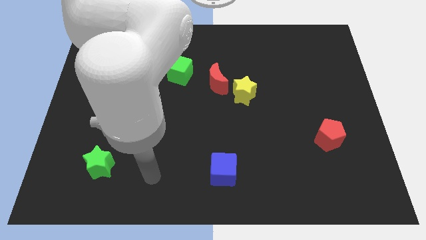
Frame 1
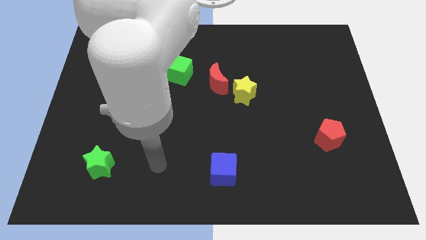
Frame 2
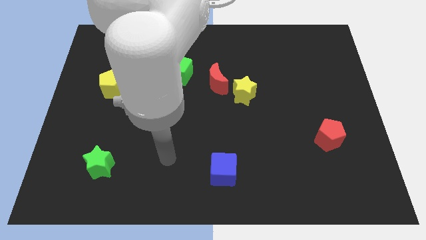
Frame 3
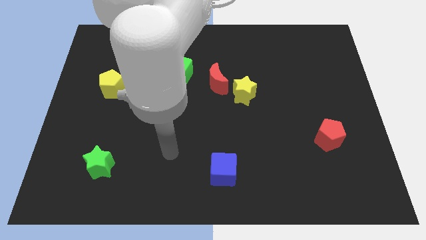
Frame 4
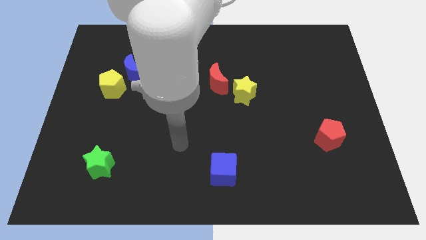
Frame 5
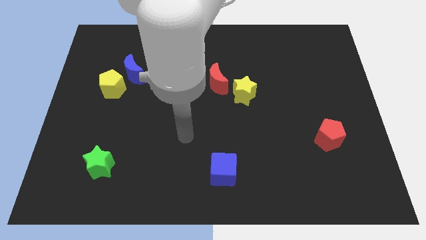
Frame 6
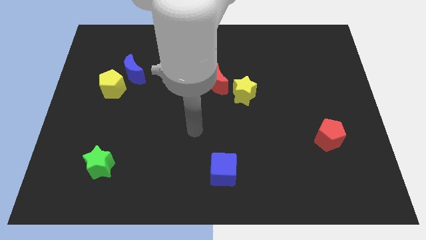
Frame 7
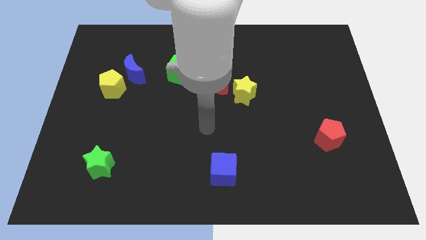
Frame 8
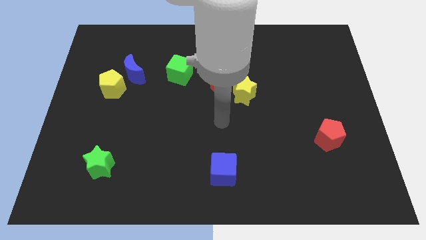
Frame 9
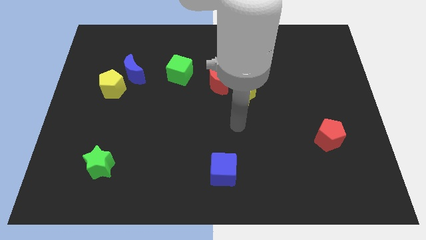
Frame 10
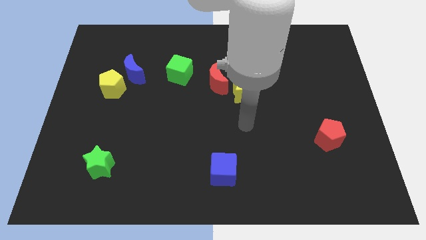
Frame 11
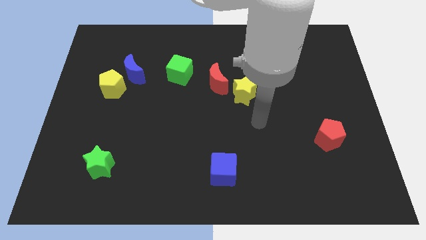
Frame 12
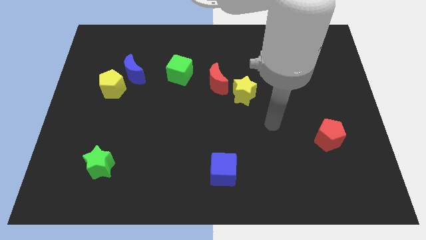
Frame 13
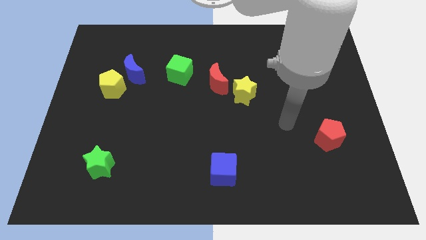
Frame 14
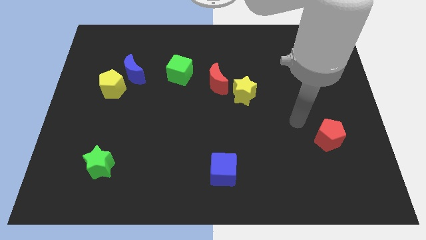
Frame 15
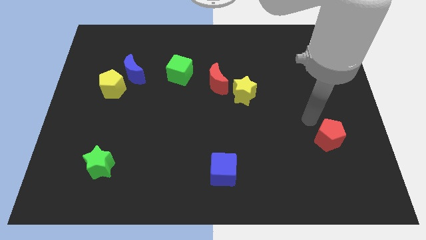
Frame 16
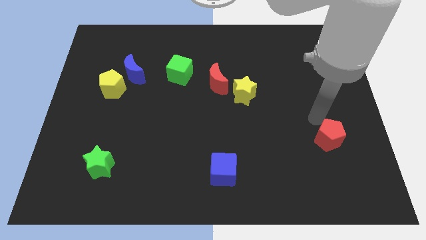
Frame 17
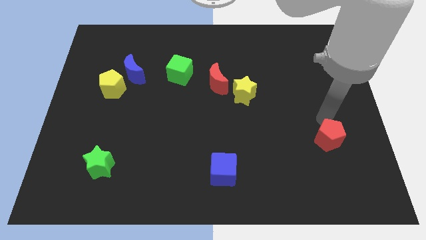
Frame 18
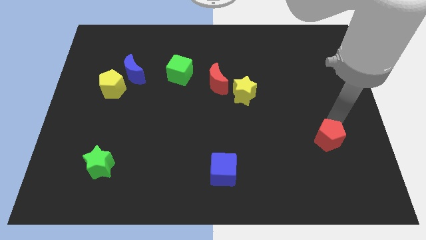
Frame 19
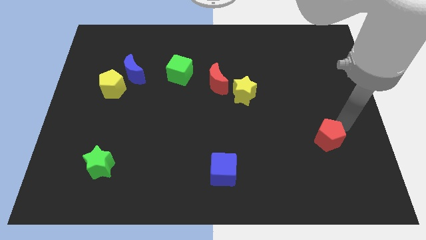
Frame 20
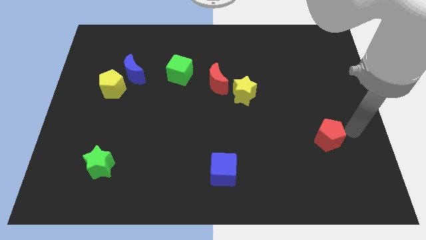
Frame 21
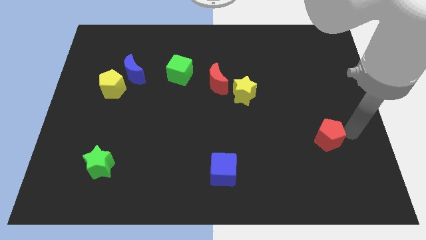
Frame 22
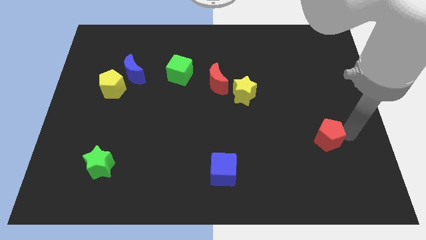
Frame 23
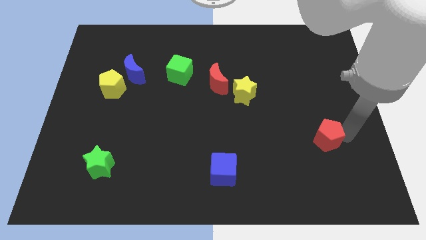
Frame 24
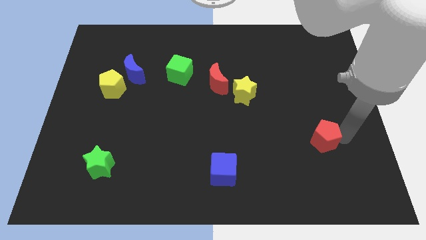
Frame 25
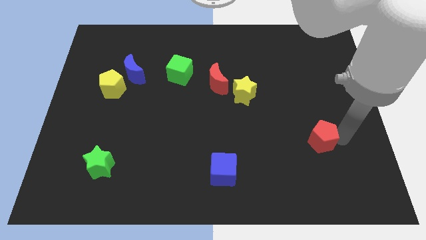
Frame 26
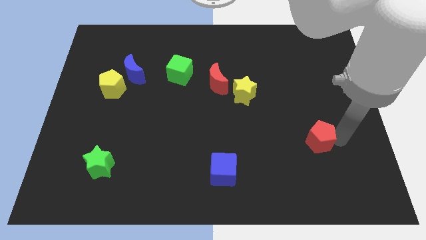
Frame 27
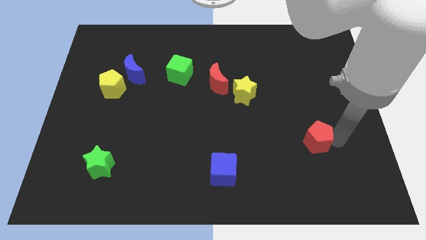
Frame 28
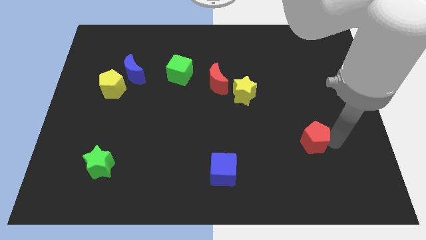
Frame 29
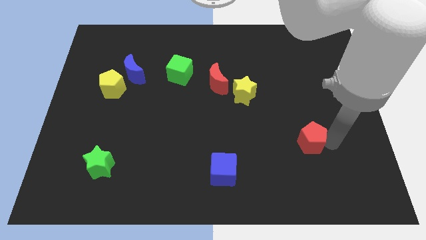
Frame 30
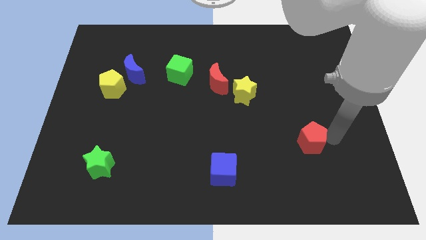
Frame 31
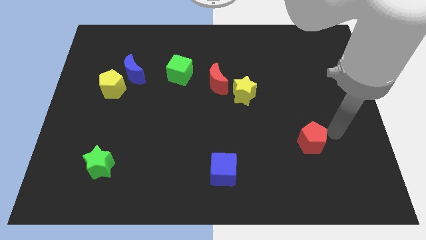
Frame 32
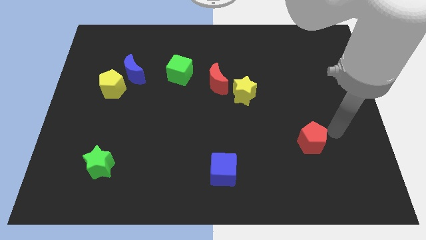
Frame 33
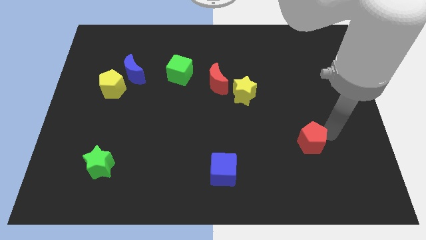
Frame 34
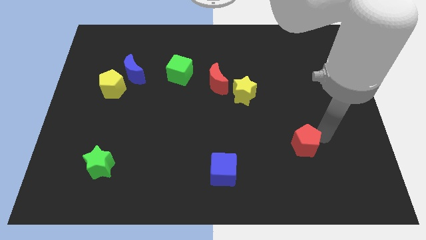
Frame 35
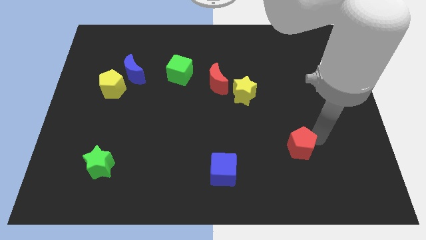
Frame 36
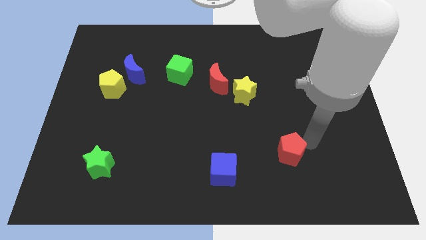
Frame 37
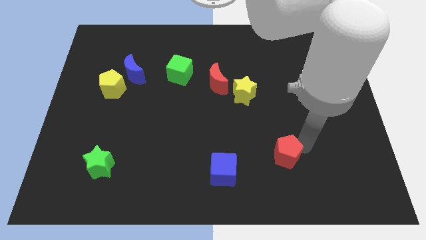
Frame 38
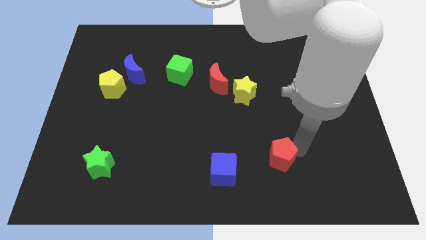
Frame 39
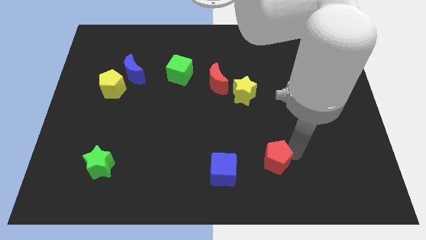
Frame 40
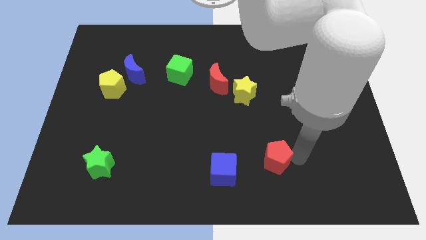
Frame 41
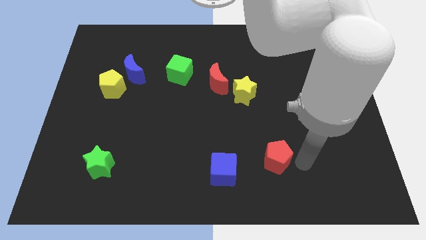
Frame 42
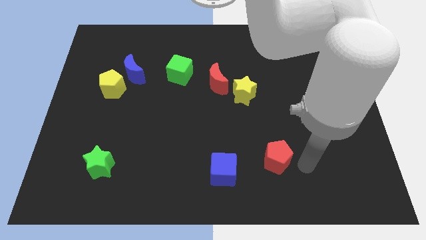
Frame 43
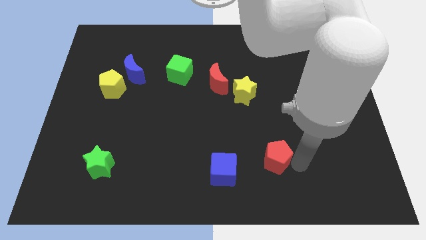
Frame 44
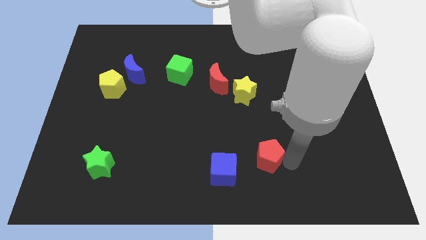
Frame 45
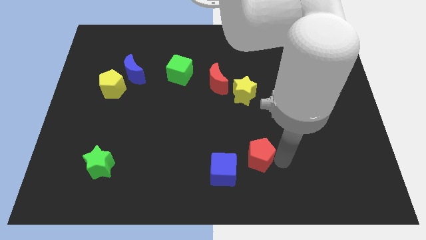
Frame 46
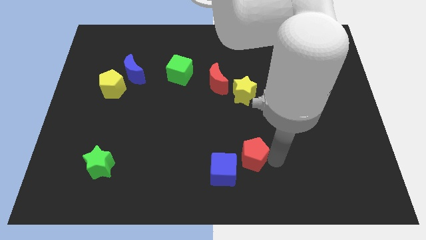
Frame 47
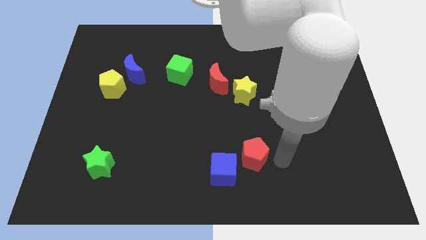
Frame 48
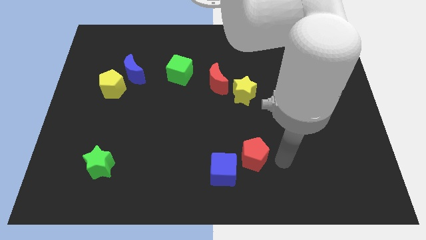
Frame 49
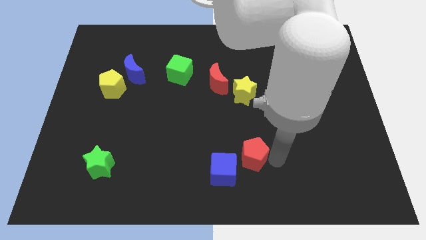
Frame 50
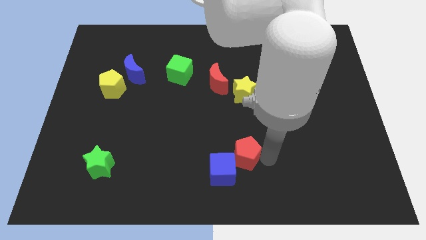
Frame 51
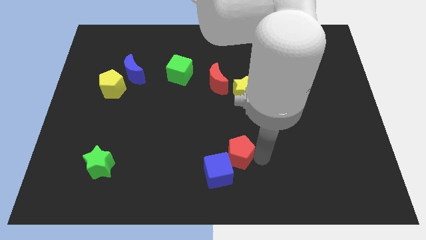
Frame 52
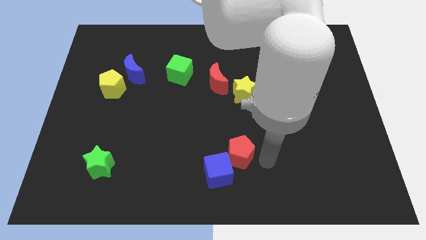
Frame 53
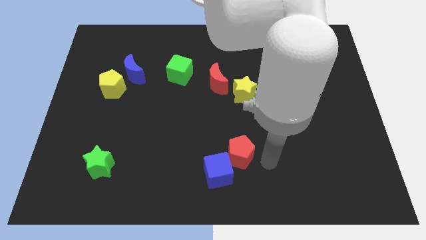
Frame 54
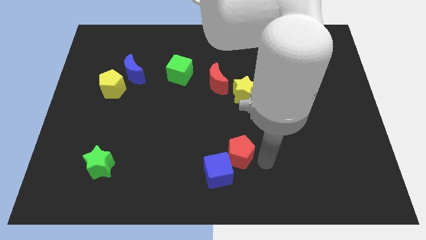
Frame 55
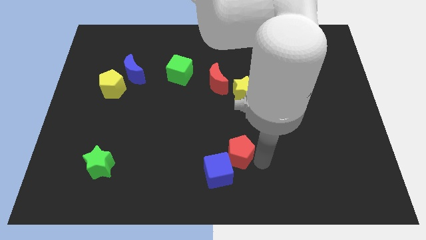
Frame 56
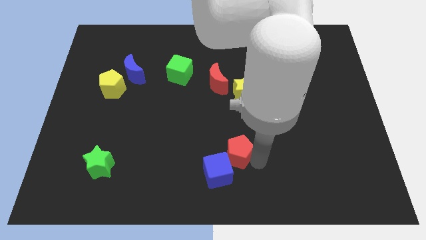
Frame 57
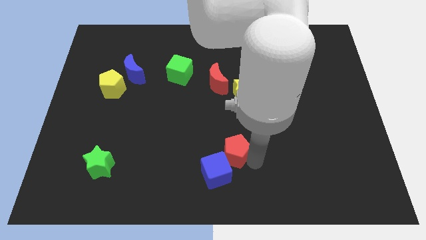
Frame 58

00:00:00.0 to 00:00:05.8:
move the red pentagon to the left

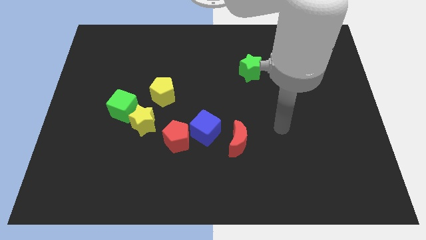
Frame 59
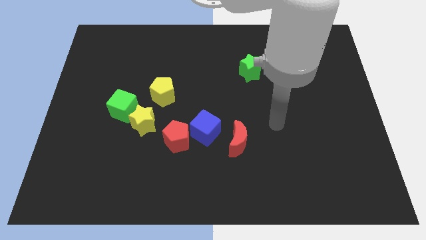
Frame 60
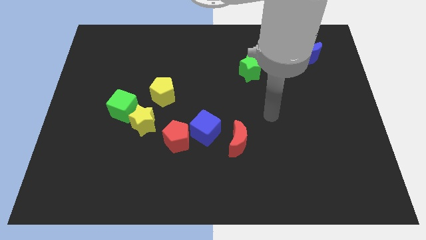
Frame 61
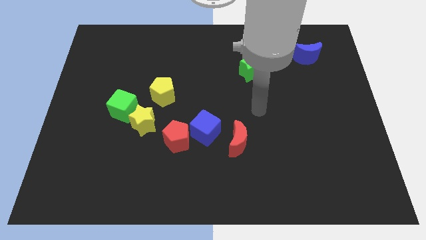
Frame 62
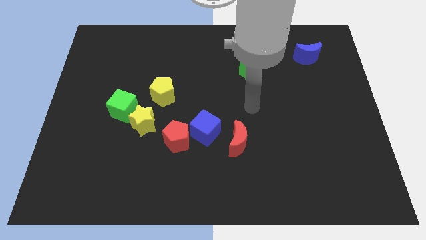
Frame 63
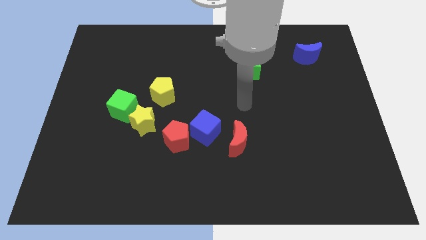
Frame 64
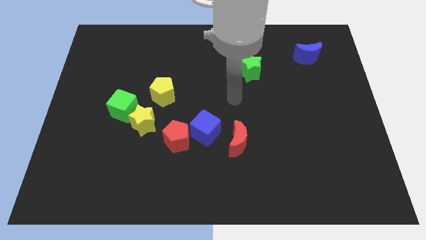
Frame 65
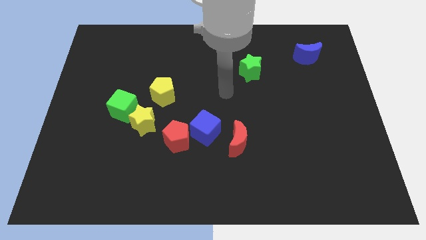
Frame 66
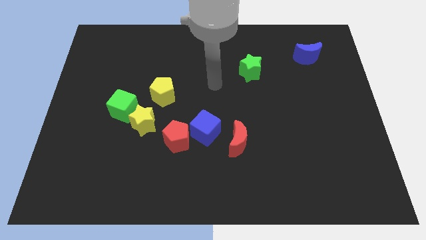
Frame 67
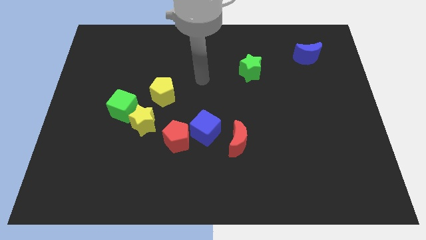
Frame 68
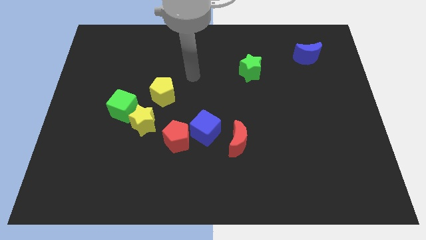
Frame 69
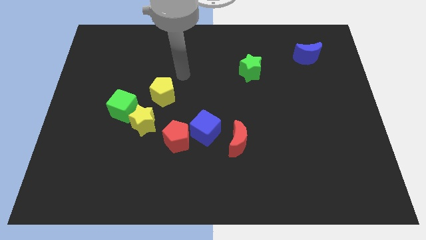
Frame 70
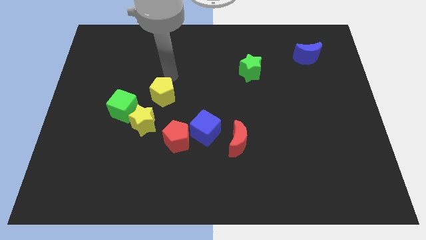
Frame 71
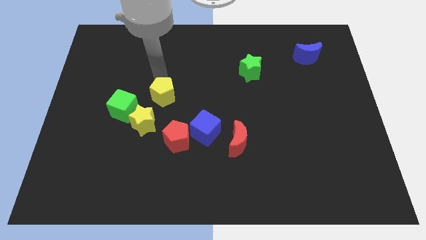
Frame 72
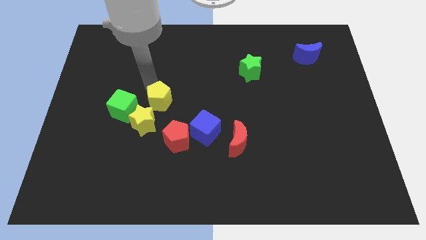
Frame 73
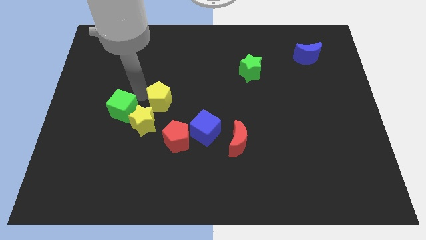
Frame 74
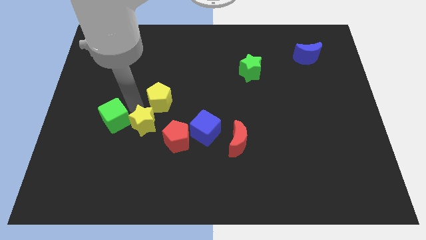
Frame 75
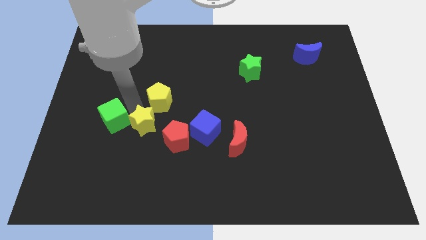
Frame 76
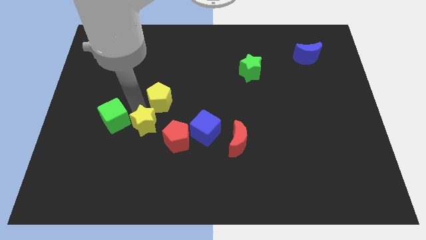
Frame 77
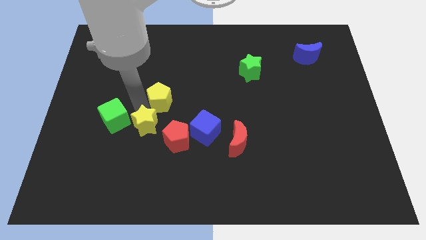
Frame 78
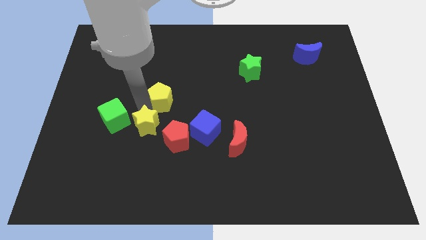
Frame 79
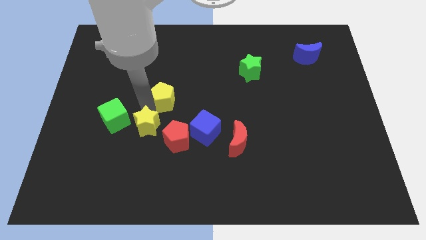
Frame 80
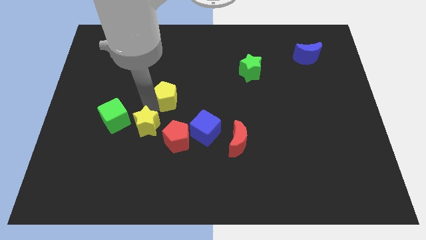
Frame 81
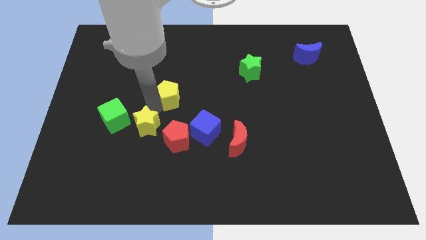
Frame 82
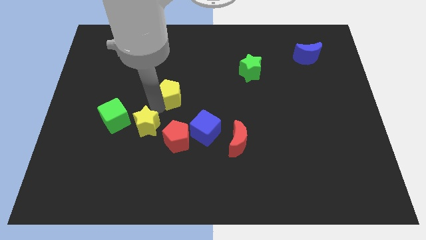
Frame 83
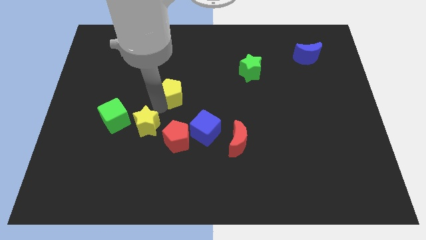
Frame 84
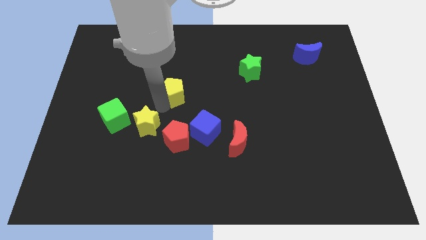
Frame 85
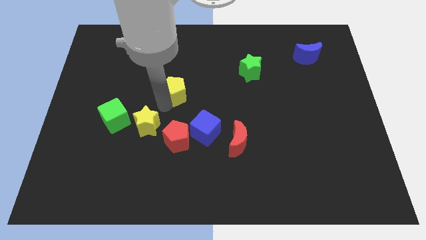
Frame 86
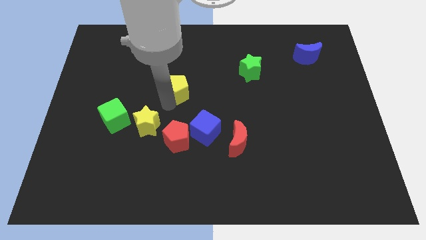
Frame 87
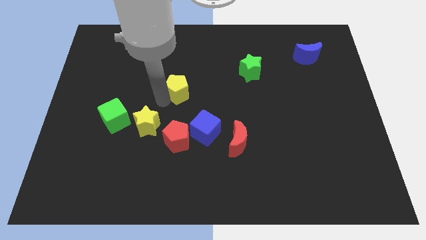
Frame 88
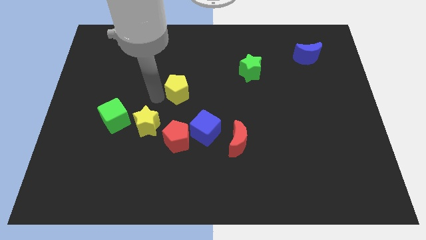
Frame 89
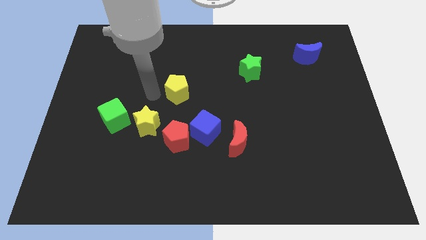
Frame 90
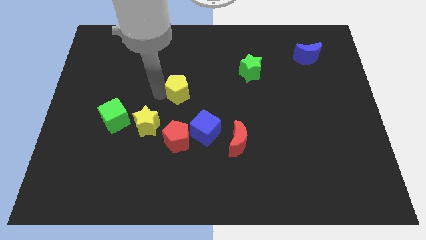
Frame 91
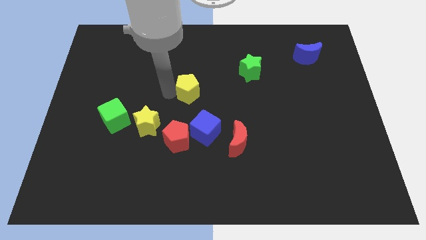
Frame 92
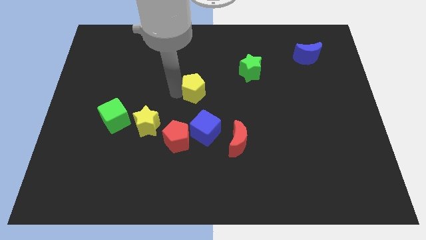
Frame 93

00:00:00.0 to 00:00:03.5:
slightly move the yellow pentagon to the right
